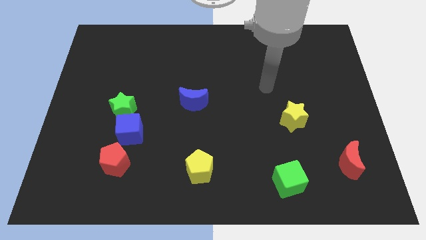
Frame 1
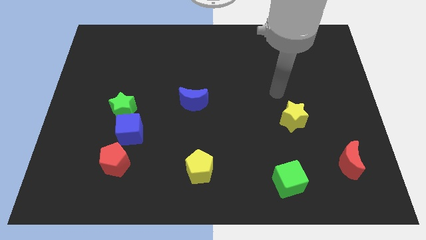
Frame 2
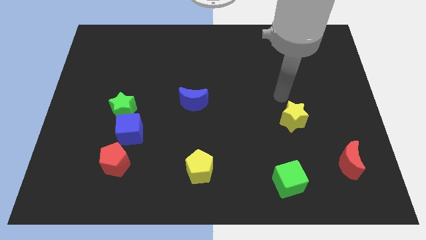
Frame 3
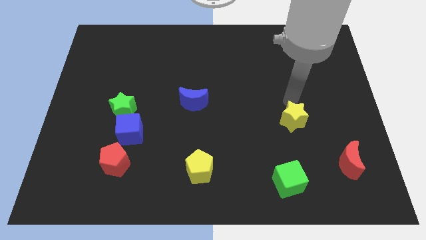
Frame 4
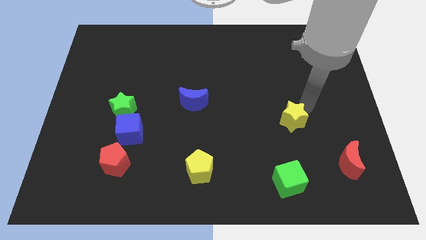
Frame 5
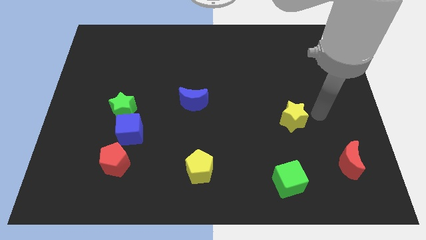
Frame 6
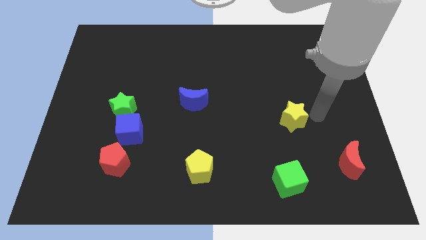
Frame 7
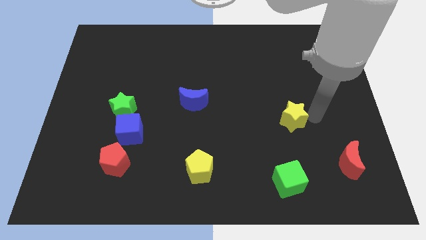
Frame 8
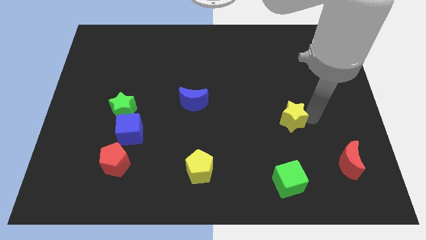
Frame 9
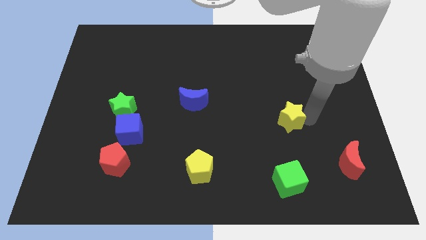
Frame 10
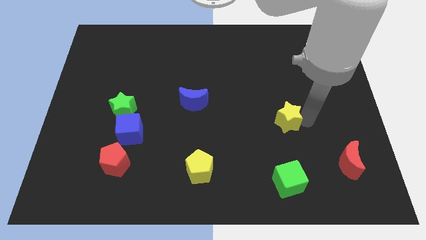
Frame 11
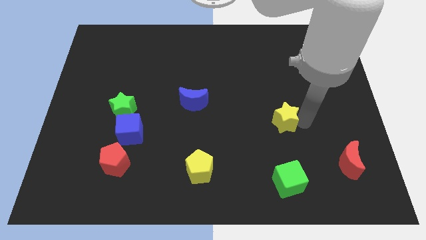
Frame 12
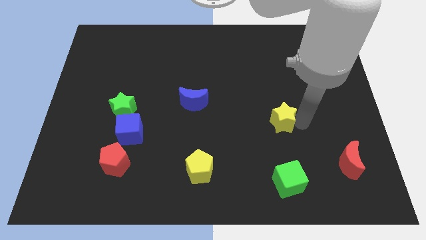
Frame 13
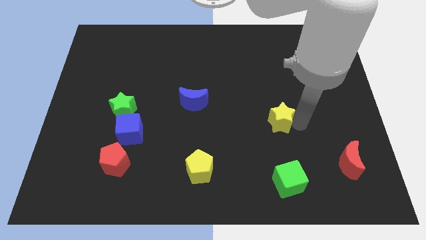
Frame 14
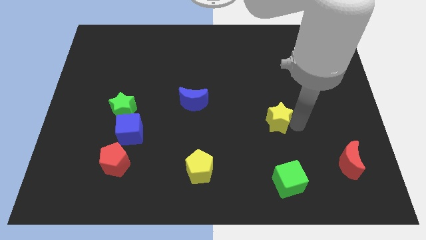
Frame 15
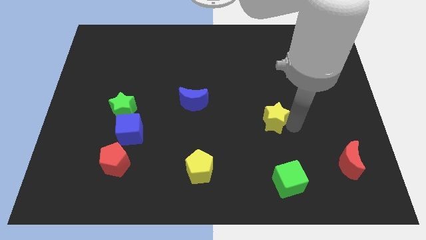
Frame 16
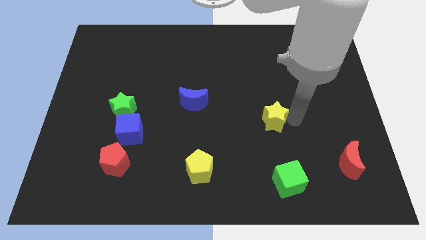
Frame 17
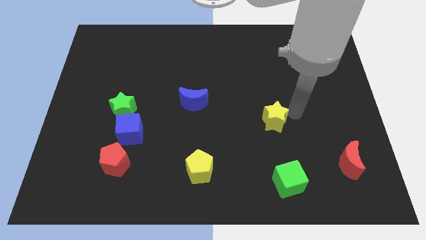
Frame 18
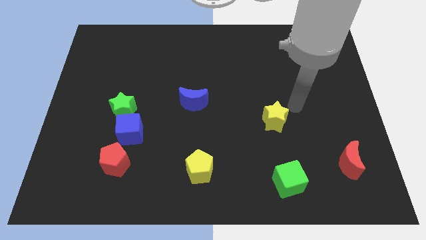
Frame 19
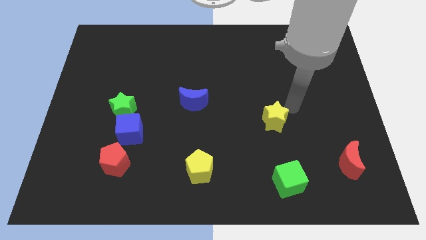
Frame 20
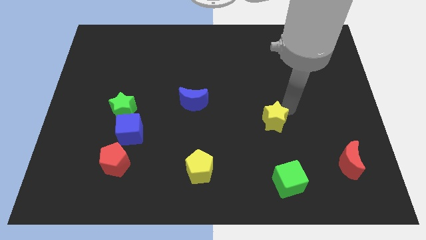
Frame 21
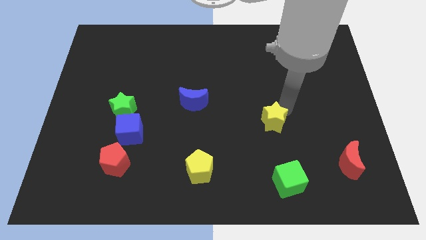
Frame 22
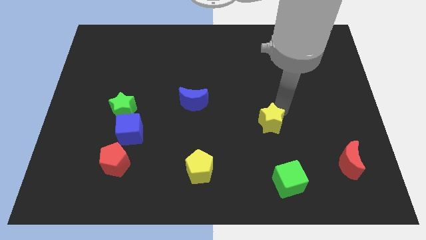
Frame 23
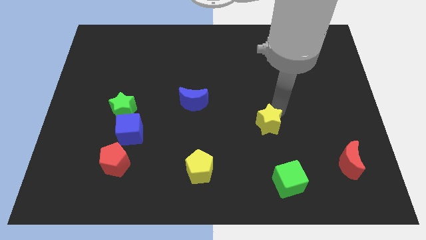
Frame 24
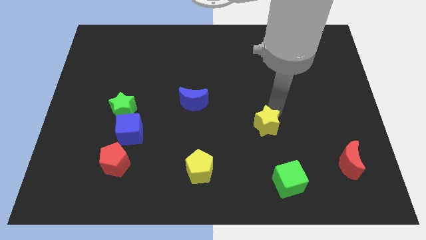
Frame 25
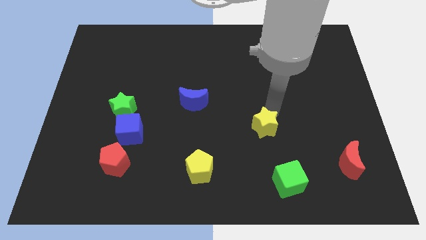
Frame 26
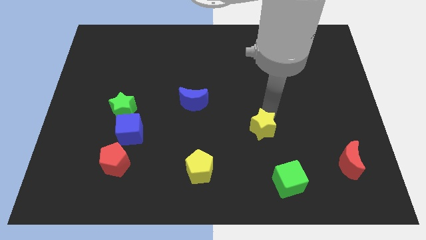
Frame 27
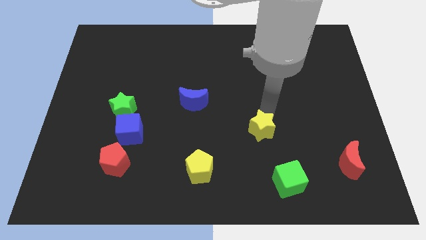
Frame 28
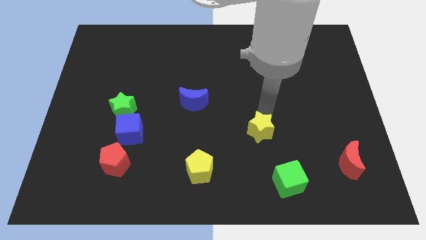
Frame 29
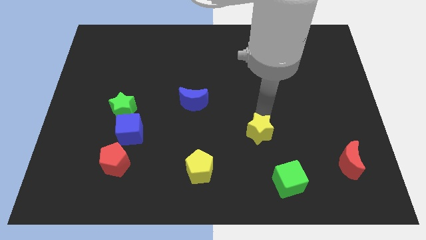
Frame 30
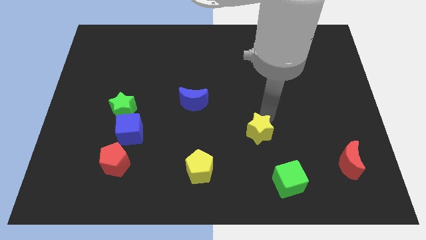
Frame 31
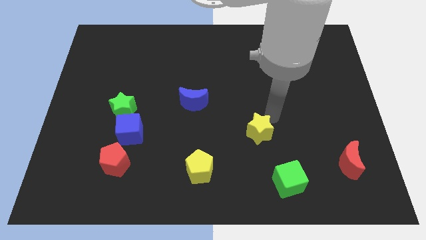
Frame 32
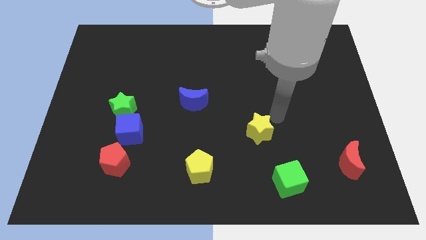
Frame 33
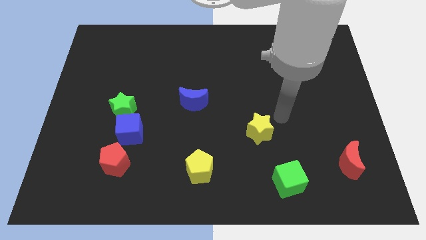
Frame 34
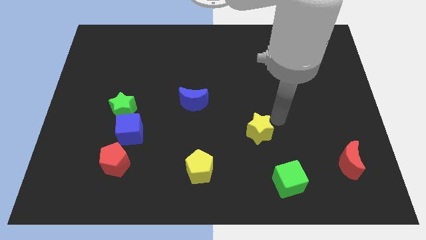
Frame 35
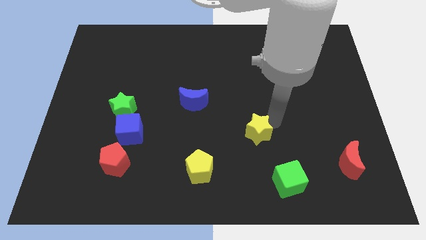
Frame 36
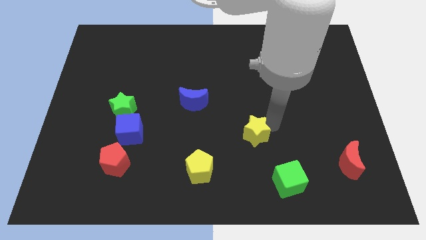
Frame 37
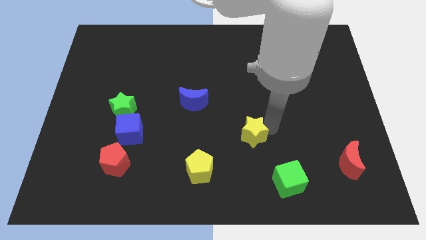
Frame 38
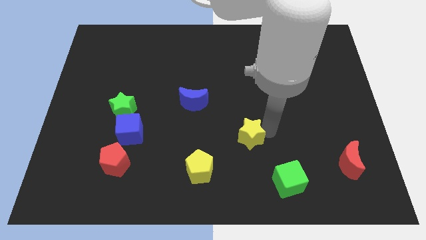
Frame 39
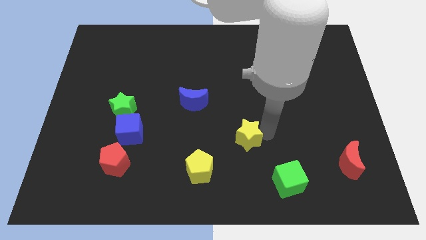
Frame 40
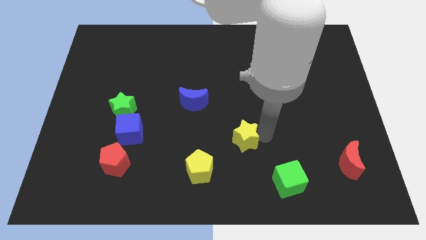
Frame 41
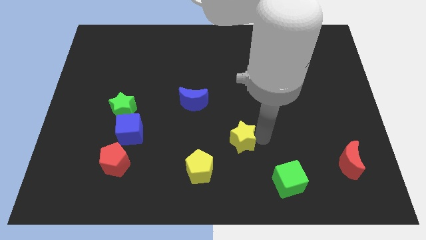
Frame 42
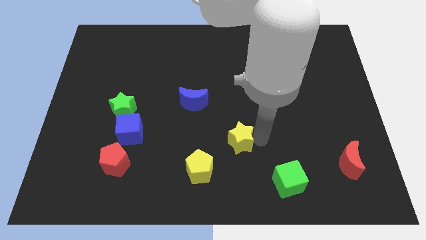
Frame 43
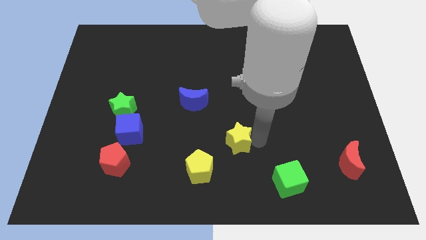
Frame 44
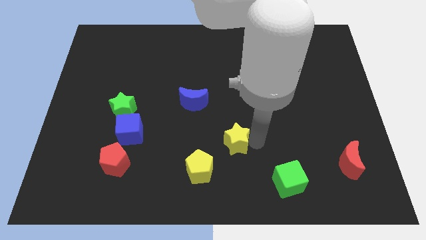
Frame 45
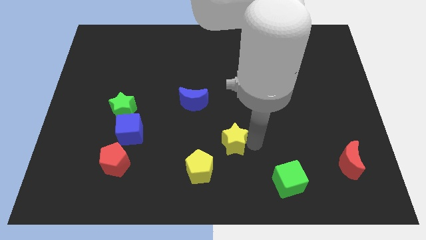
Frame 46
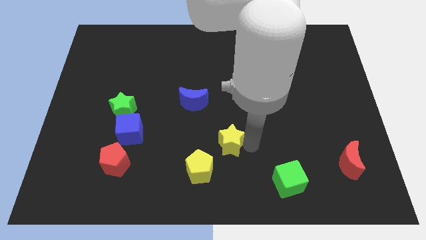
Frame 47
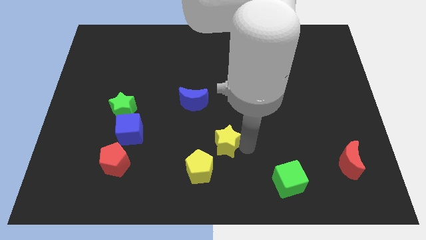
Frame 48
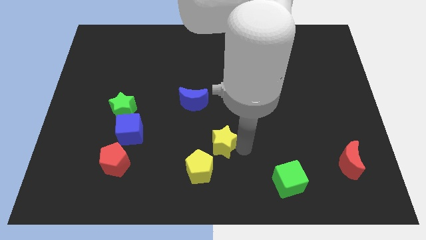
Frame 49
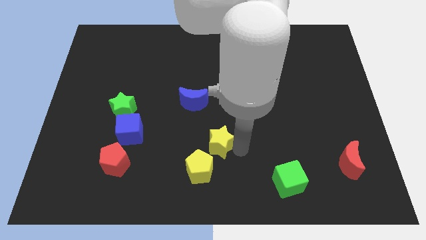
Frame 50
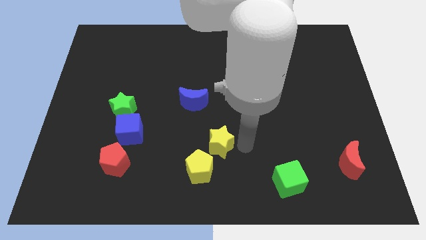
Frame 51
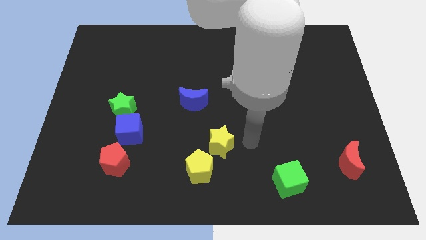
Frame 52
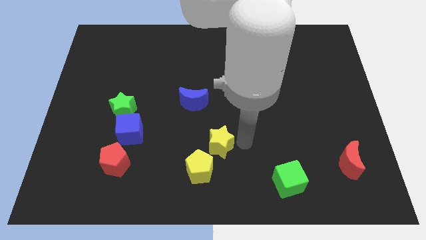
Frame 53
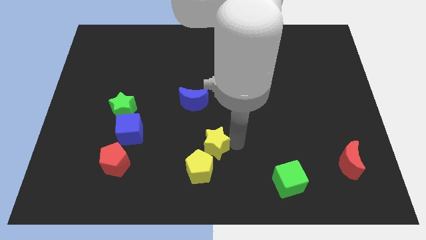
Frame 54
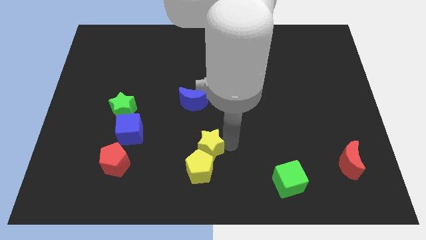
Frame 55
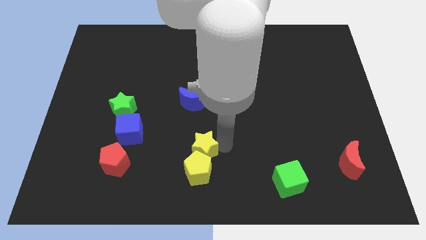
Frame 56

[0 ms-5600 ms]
slide the yellow star diagonally up and to the left of the yellow pentagon

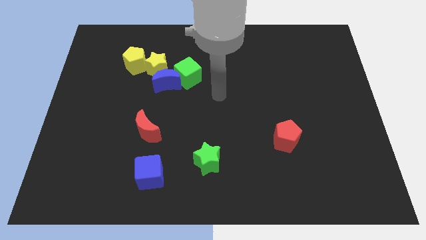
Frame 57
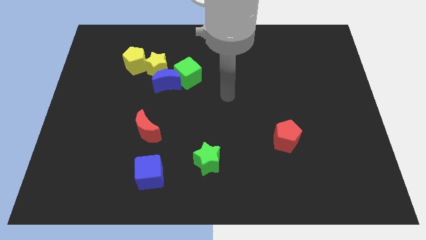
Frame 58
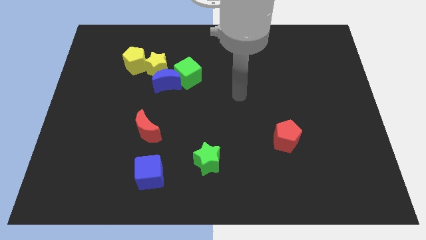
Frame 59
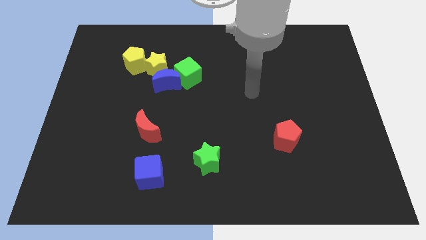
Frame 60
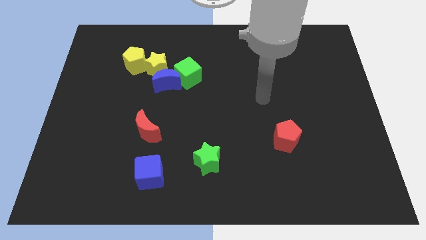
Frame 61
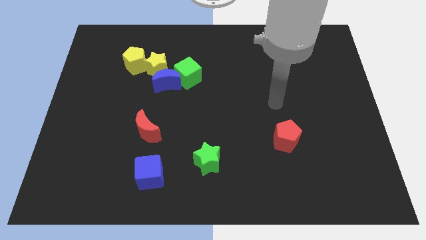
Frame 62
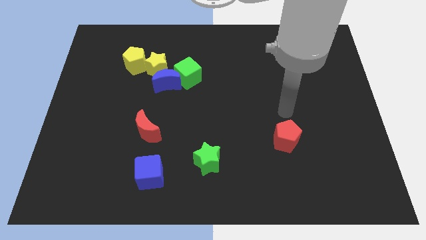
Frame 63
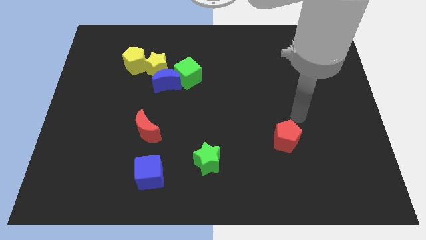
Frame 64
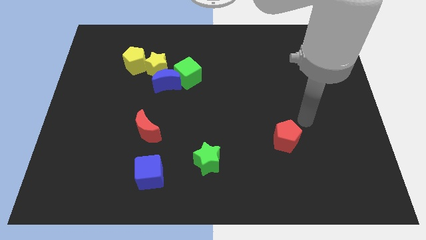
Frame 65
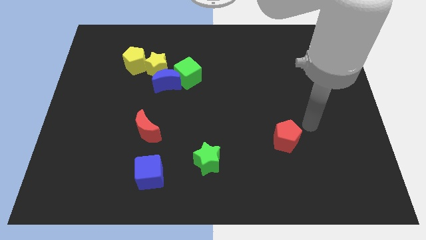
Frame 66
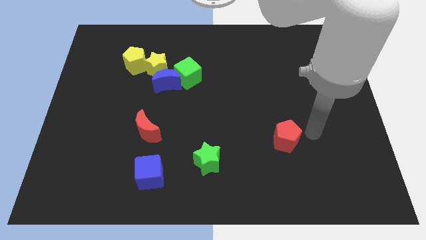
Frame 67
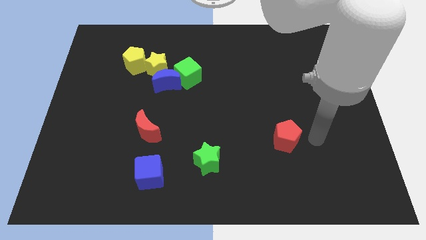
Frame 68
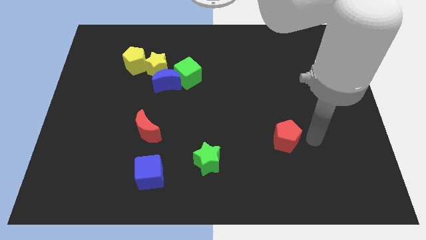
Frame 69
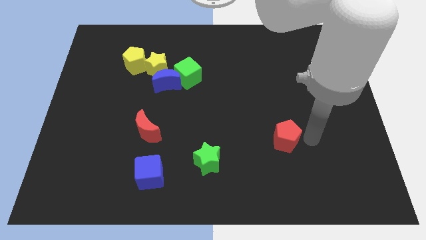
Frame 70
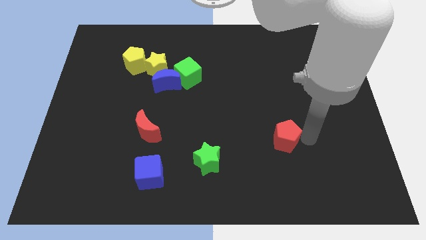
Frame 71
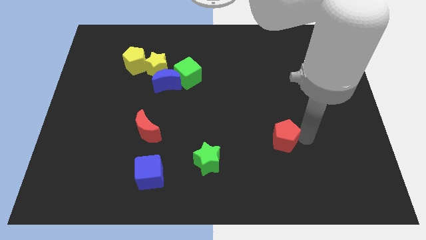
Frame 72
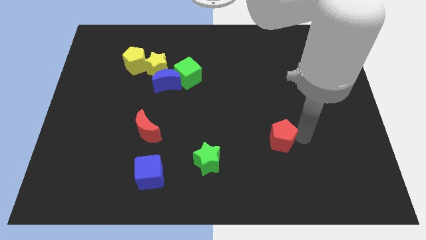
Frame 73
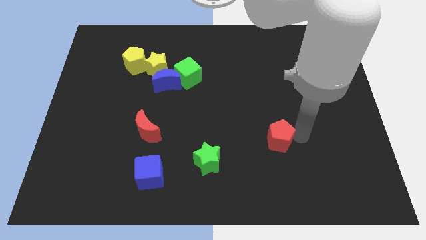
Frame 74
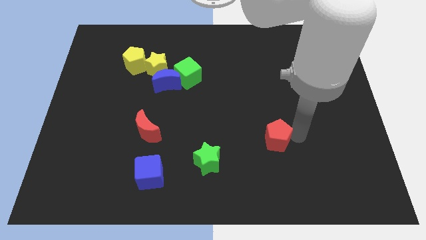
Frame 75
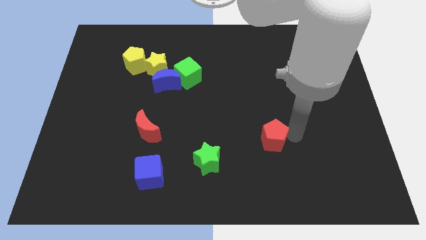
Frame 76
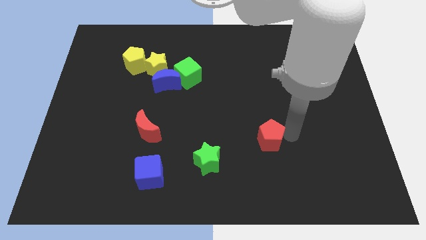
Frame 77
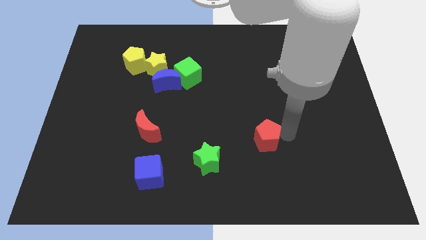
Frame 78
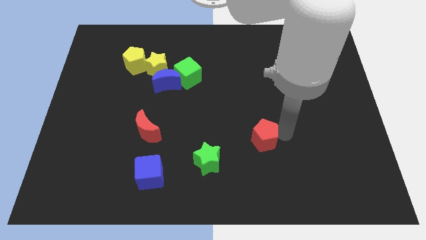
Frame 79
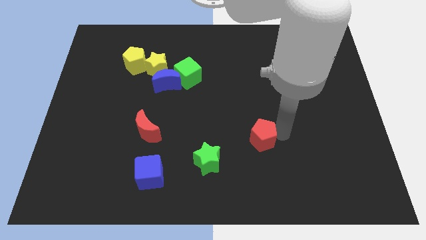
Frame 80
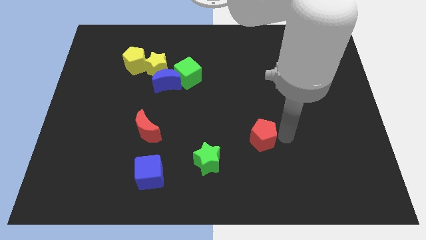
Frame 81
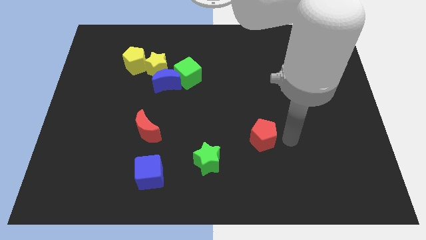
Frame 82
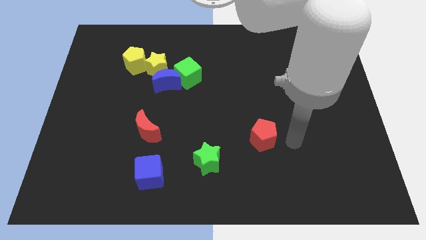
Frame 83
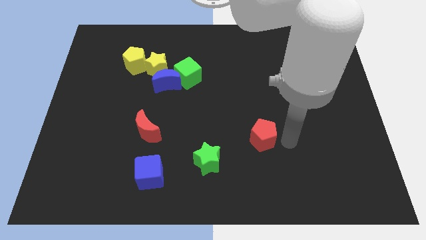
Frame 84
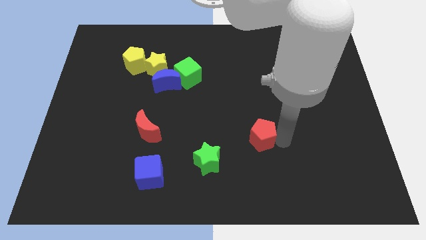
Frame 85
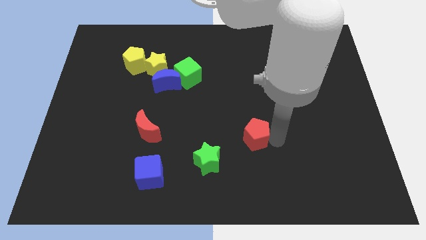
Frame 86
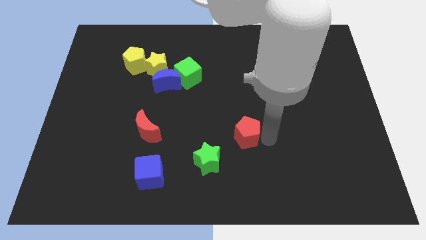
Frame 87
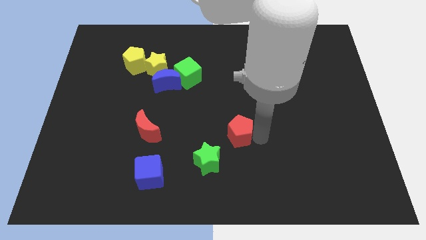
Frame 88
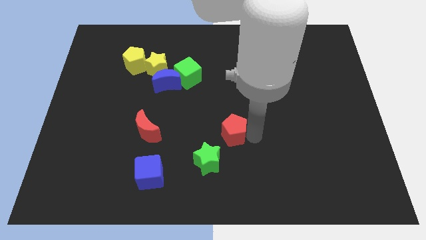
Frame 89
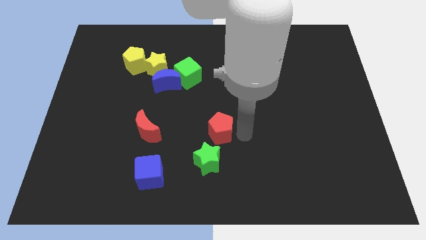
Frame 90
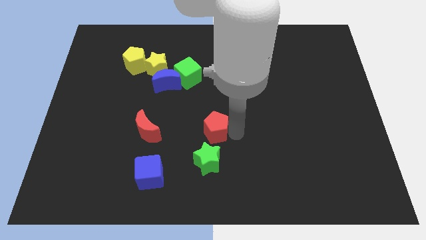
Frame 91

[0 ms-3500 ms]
move the red pentagon just right of the red moon

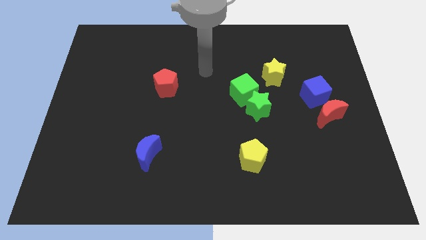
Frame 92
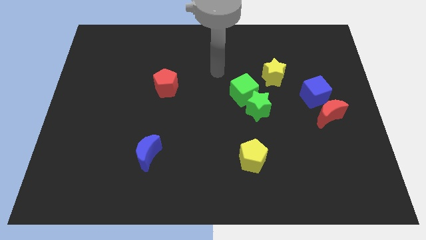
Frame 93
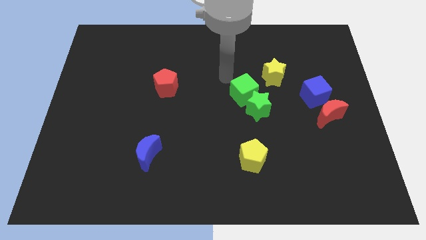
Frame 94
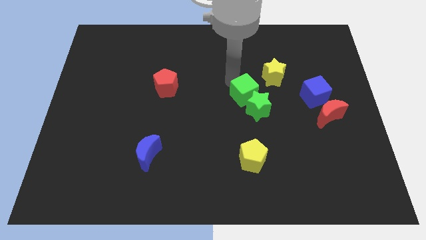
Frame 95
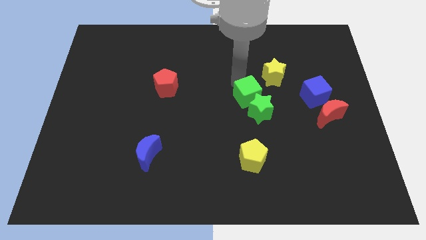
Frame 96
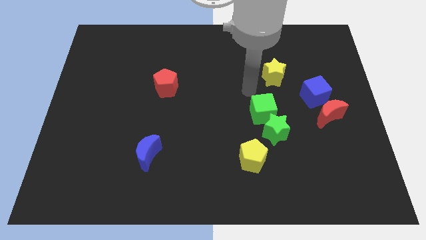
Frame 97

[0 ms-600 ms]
put the green star diagonally up and to the right of the yellow pentagon
